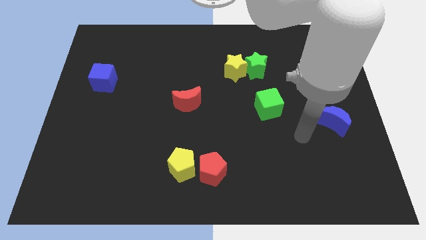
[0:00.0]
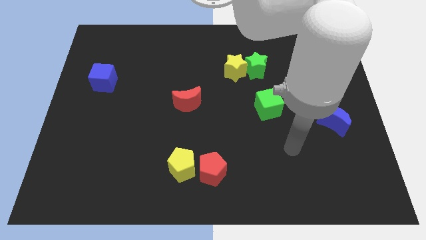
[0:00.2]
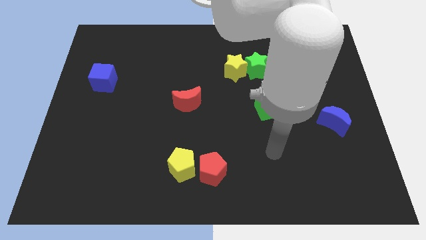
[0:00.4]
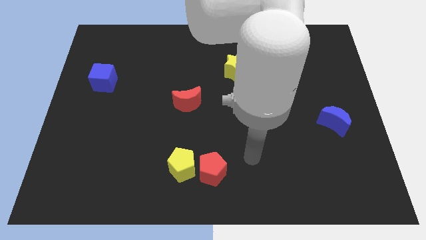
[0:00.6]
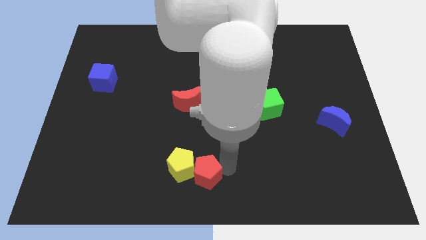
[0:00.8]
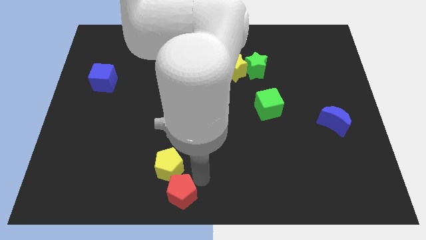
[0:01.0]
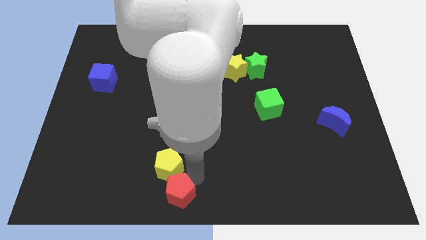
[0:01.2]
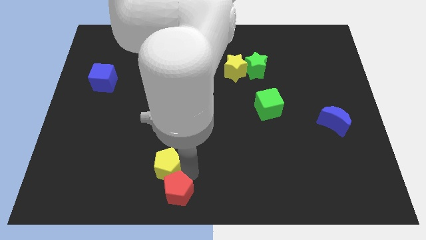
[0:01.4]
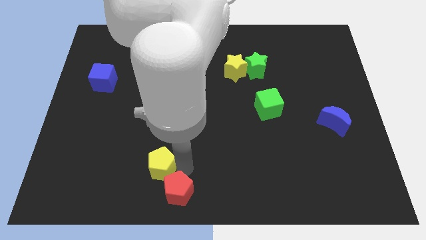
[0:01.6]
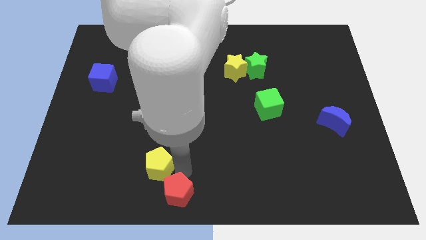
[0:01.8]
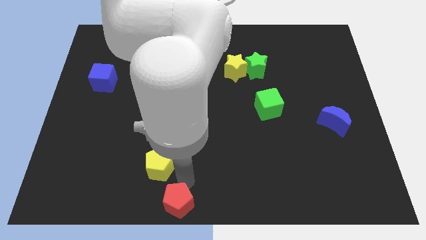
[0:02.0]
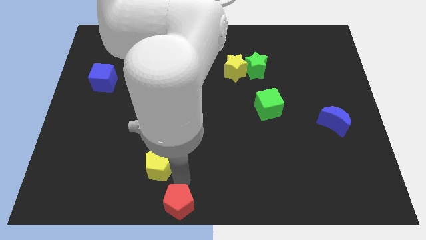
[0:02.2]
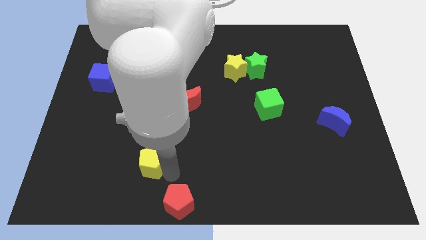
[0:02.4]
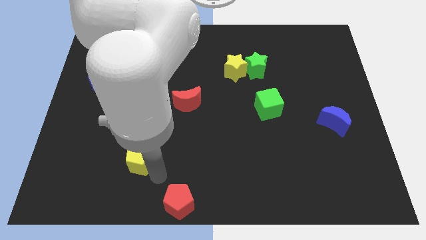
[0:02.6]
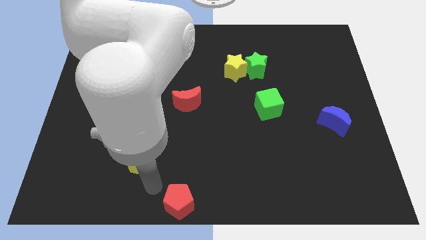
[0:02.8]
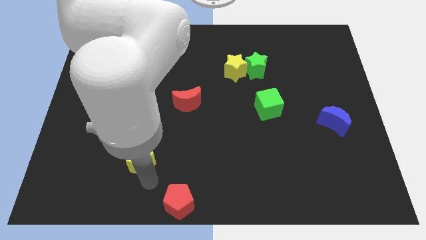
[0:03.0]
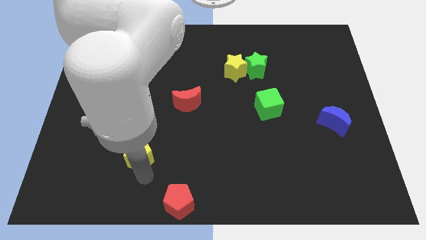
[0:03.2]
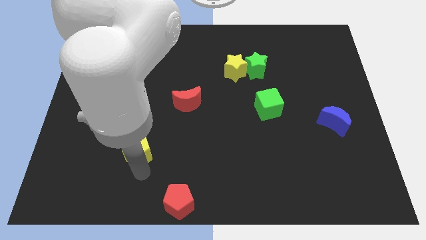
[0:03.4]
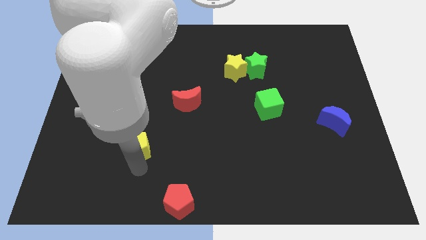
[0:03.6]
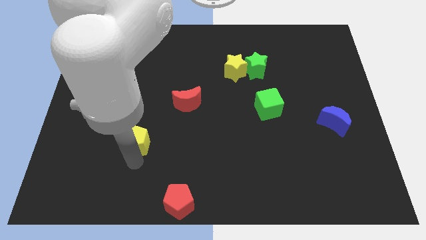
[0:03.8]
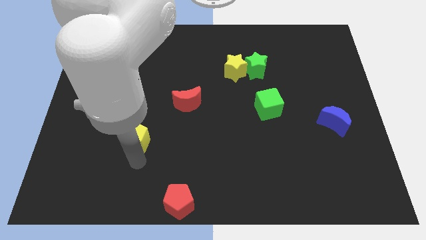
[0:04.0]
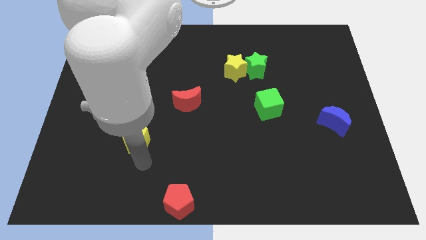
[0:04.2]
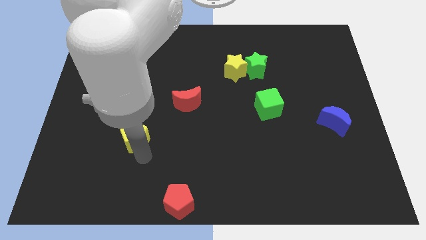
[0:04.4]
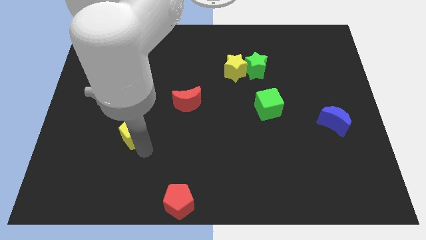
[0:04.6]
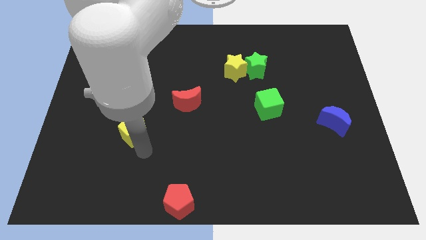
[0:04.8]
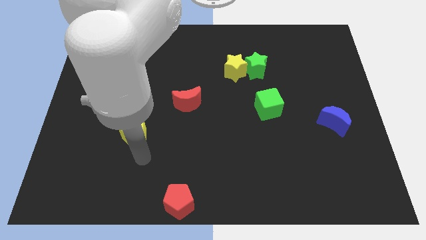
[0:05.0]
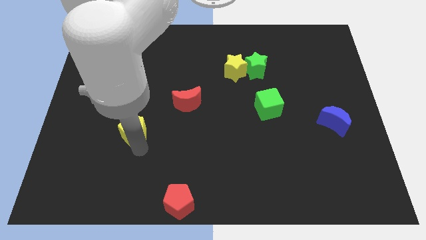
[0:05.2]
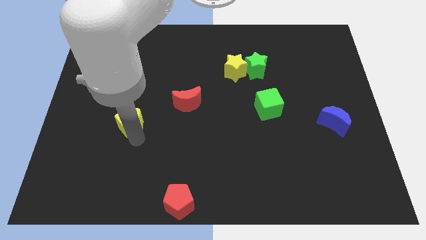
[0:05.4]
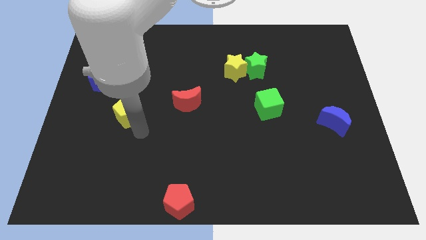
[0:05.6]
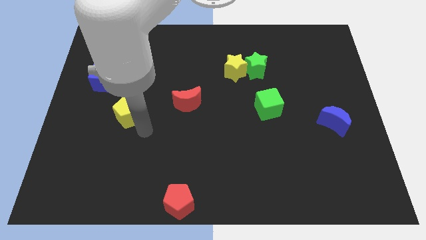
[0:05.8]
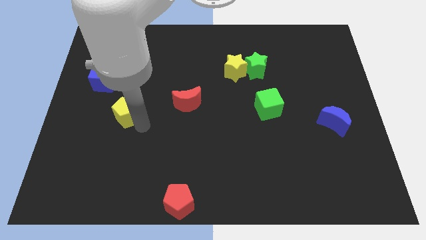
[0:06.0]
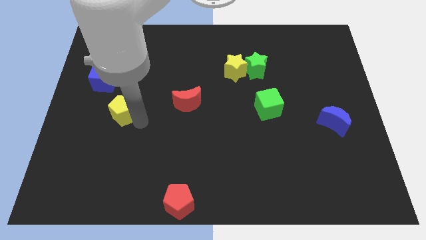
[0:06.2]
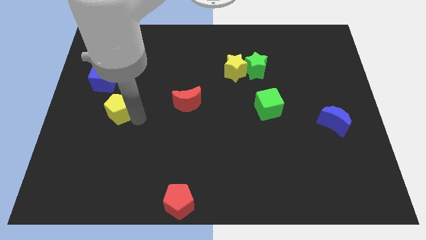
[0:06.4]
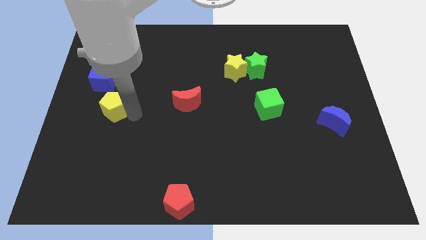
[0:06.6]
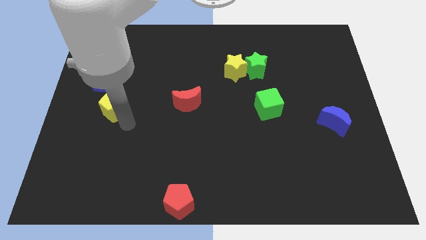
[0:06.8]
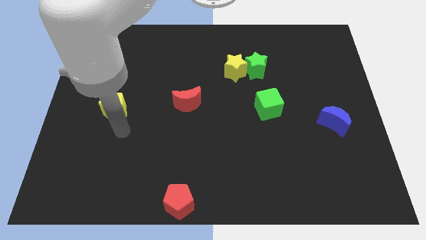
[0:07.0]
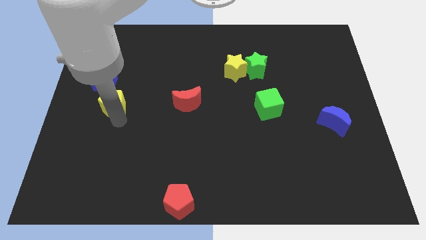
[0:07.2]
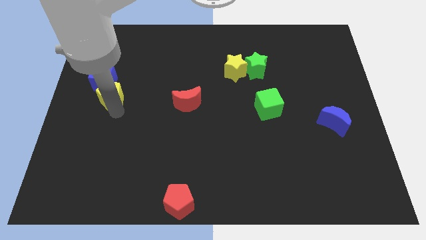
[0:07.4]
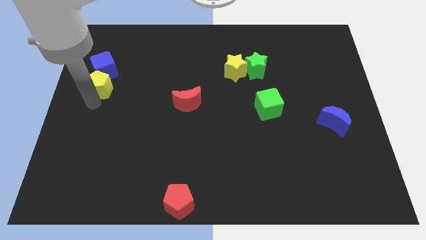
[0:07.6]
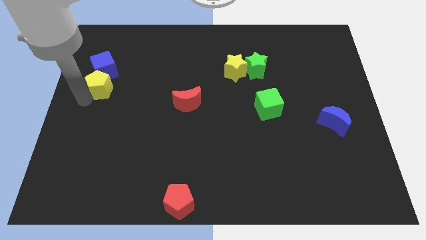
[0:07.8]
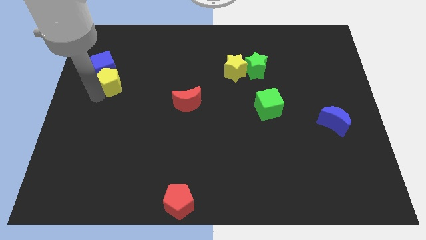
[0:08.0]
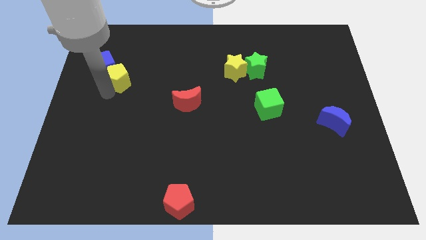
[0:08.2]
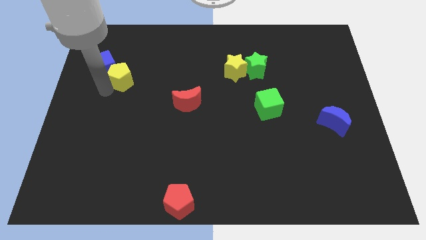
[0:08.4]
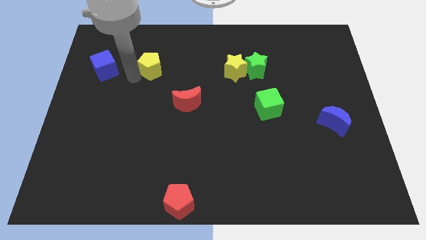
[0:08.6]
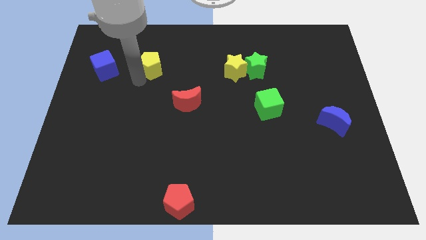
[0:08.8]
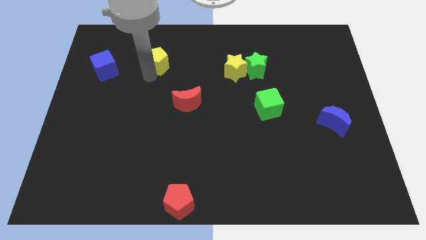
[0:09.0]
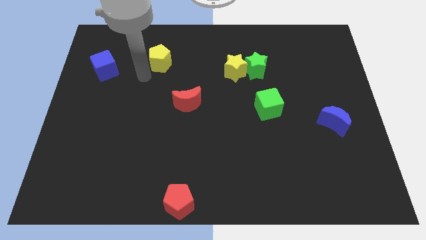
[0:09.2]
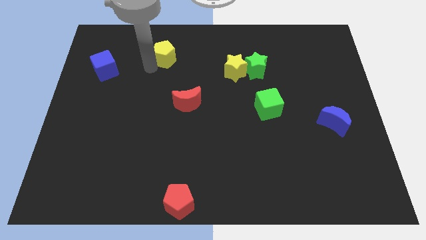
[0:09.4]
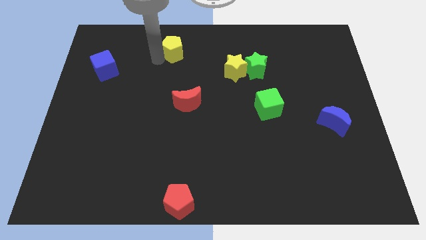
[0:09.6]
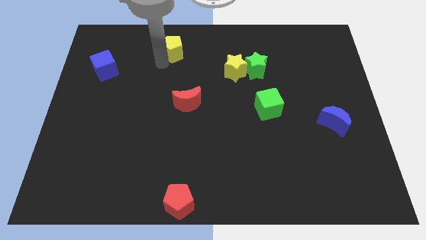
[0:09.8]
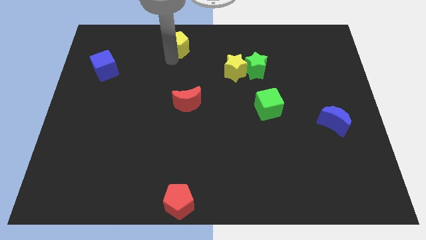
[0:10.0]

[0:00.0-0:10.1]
move the yellow pentagon to the top

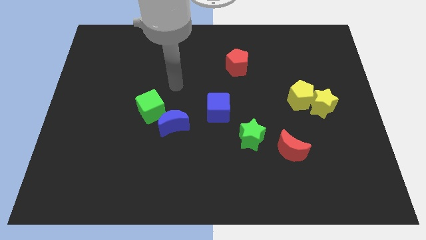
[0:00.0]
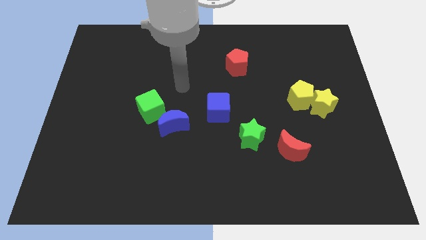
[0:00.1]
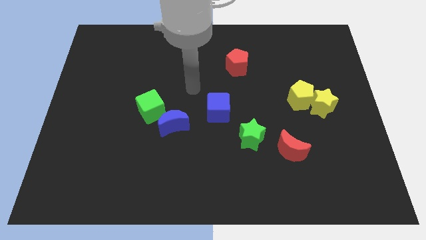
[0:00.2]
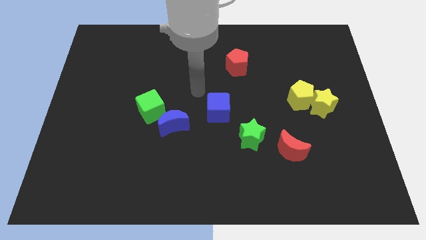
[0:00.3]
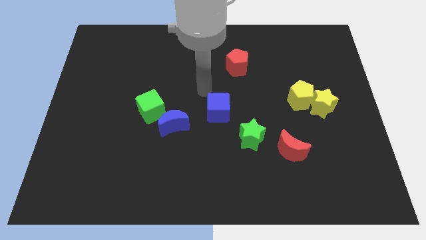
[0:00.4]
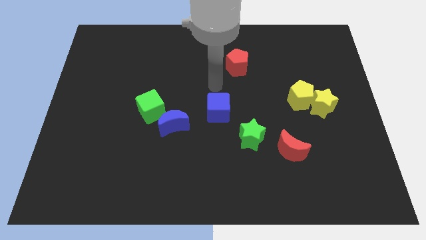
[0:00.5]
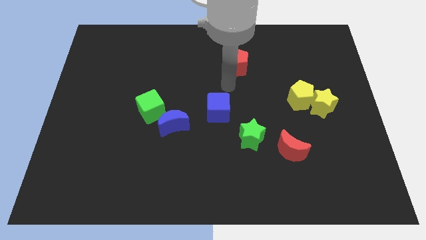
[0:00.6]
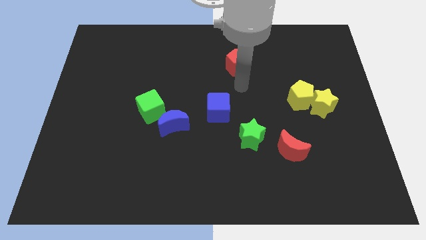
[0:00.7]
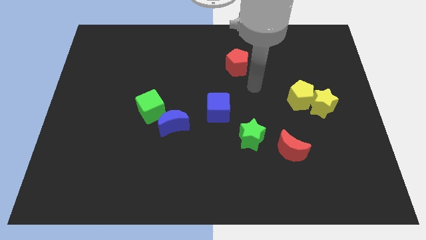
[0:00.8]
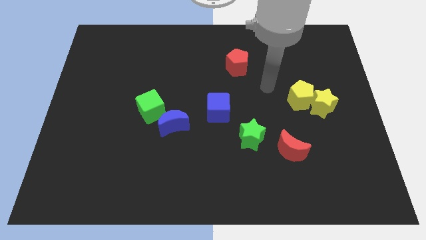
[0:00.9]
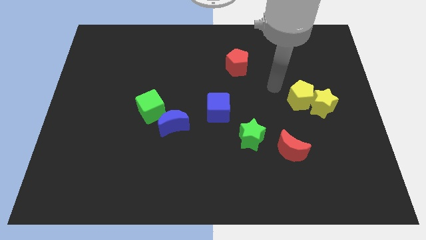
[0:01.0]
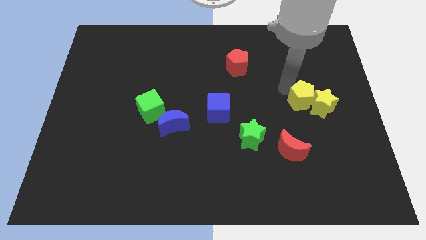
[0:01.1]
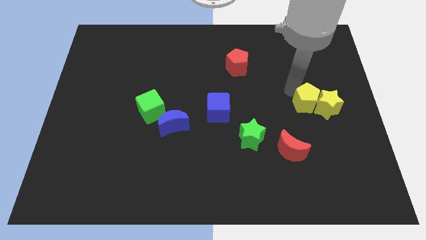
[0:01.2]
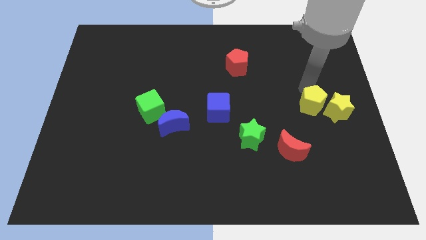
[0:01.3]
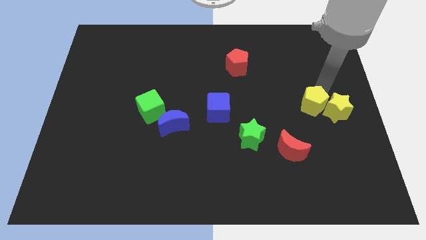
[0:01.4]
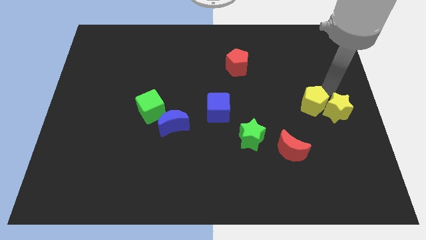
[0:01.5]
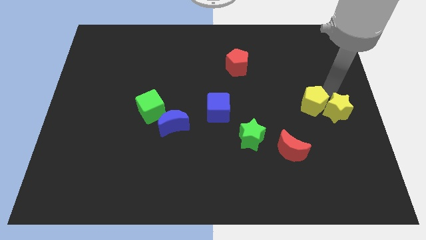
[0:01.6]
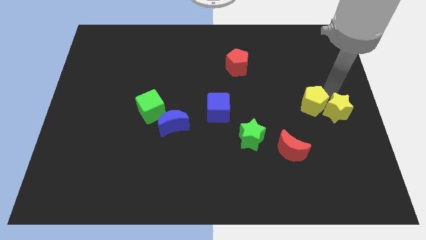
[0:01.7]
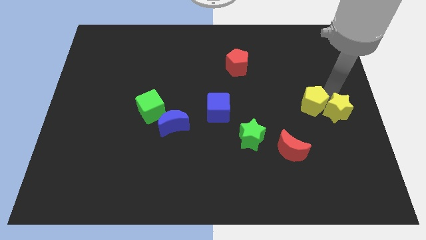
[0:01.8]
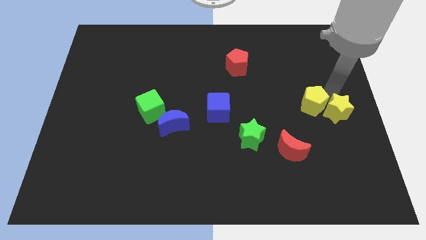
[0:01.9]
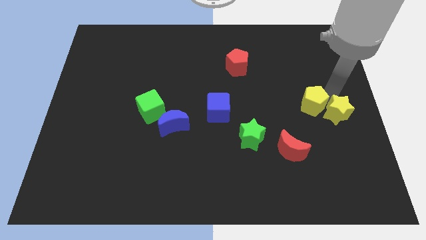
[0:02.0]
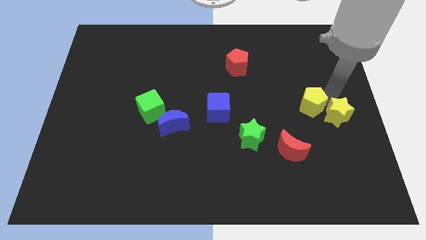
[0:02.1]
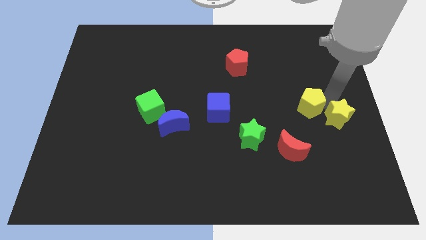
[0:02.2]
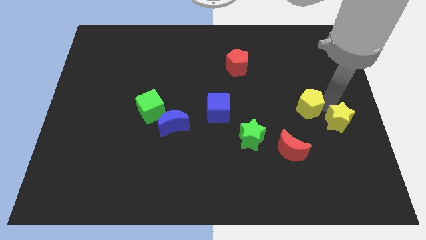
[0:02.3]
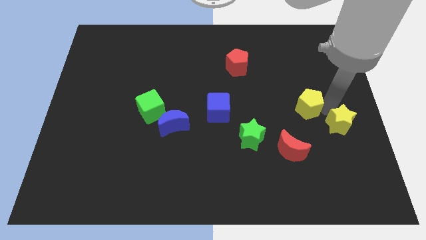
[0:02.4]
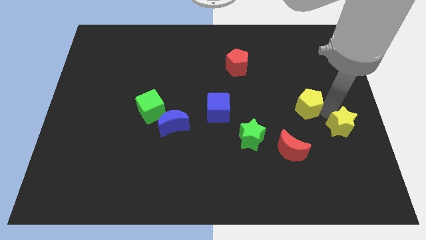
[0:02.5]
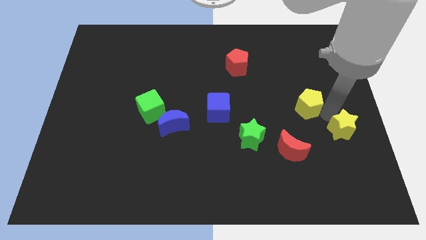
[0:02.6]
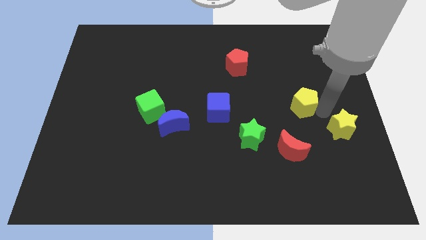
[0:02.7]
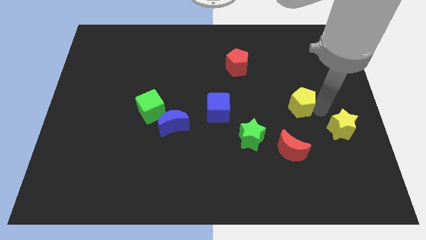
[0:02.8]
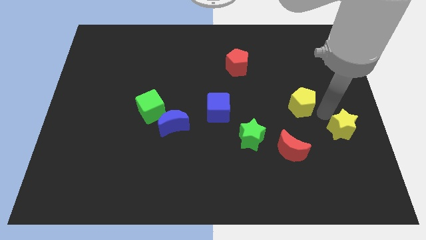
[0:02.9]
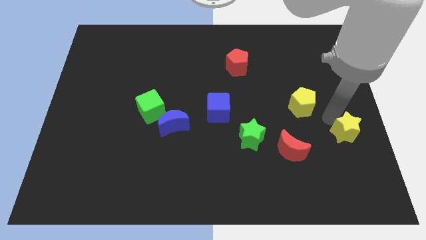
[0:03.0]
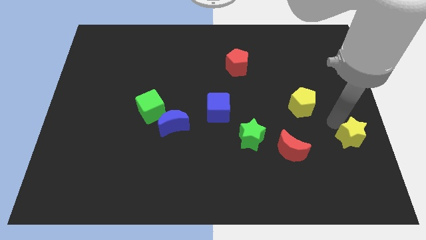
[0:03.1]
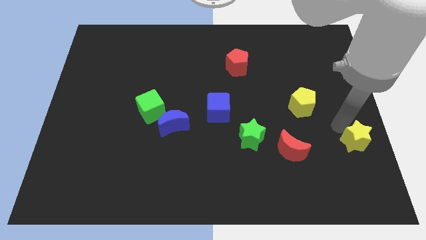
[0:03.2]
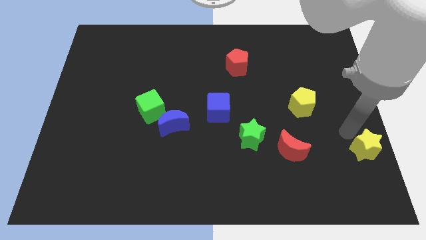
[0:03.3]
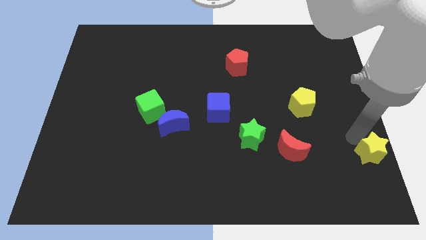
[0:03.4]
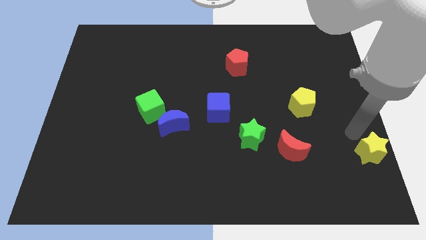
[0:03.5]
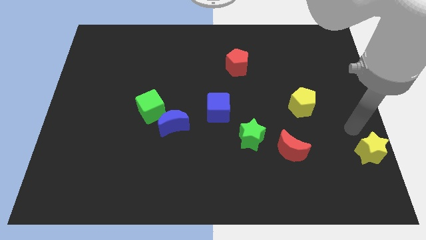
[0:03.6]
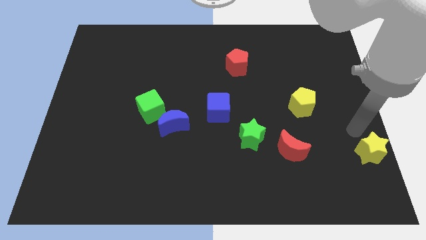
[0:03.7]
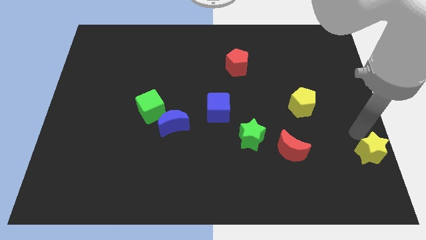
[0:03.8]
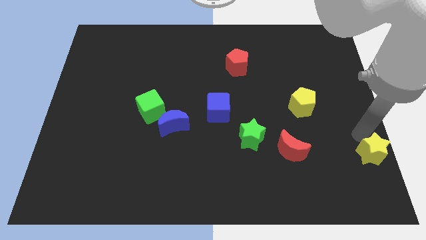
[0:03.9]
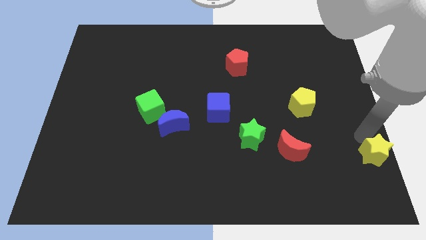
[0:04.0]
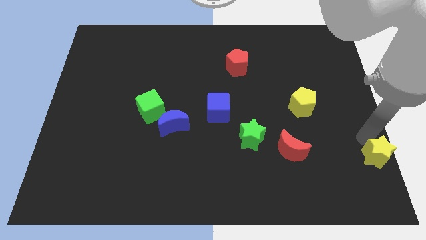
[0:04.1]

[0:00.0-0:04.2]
slide the yellow star to the bottom right of the board
